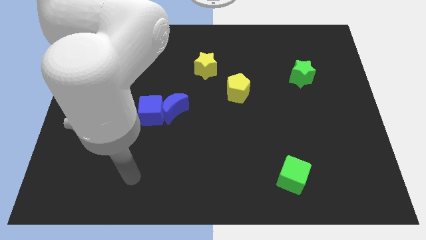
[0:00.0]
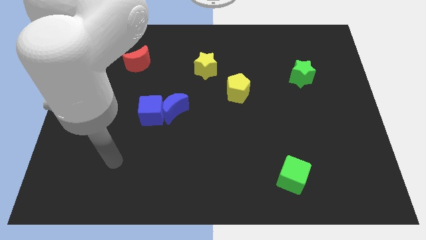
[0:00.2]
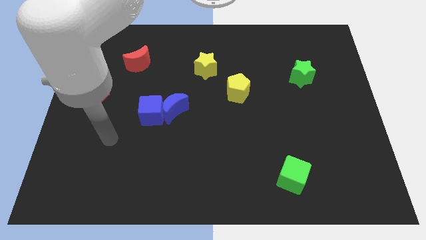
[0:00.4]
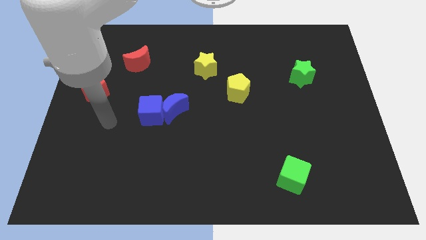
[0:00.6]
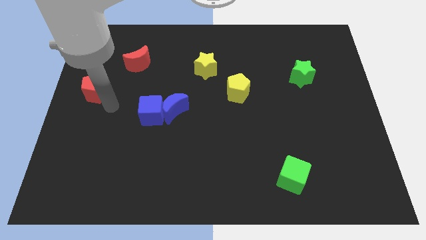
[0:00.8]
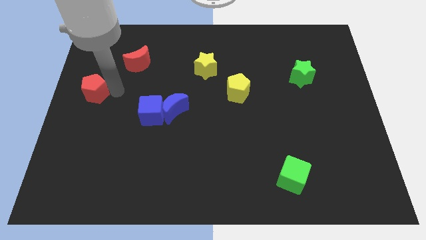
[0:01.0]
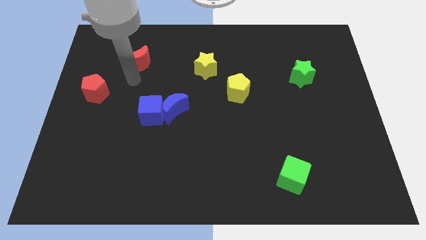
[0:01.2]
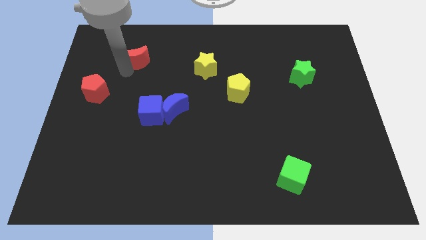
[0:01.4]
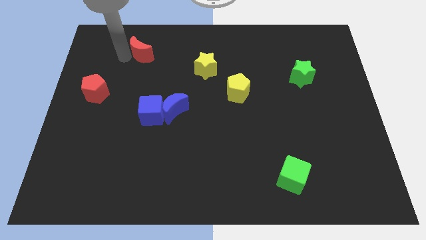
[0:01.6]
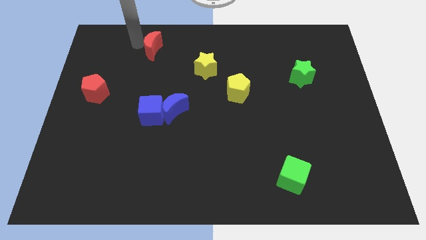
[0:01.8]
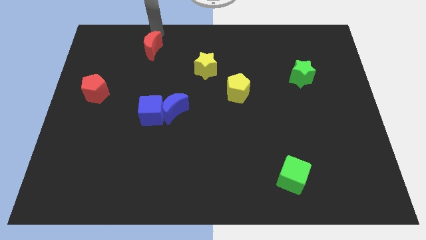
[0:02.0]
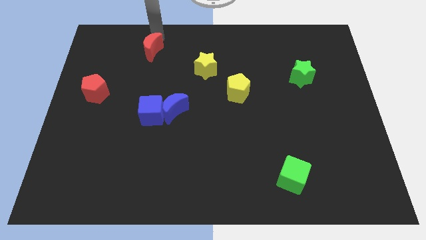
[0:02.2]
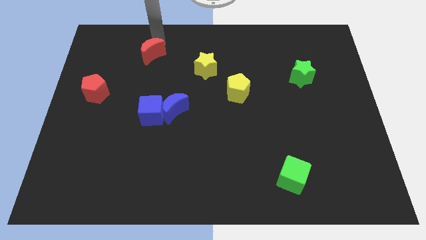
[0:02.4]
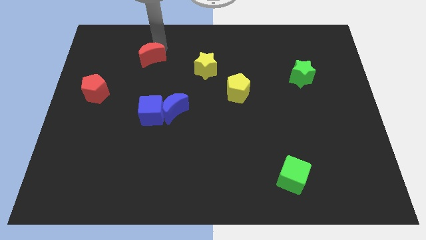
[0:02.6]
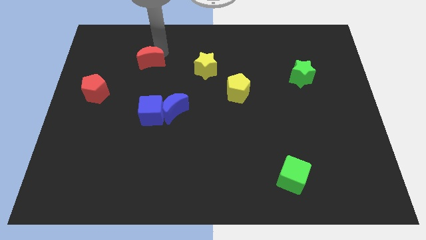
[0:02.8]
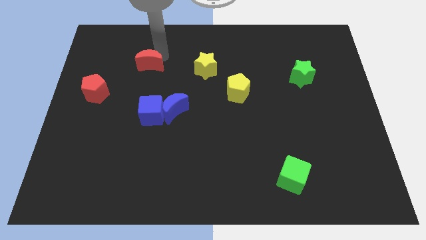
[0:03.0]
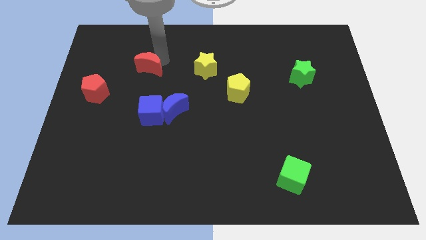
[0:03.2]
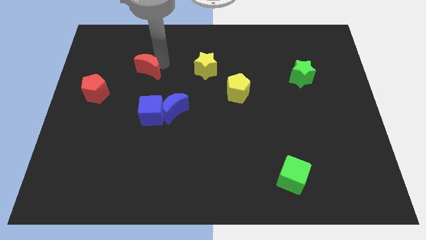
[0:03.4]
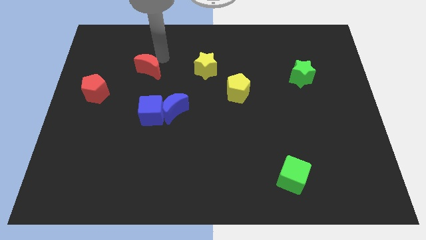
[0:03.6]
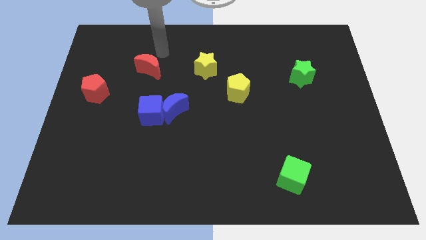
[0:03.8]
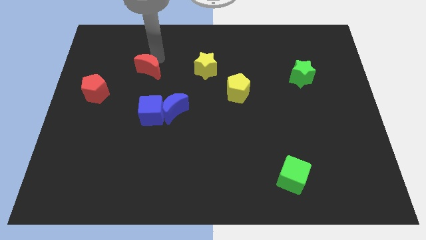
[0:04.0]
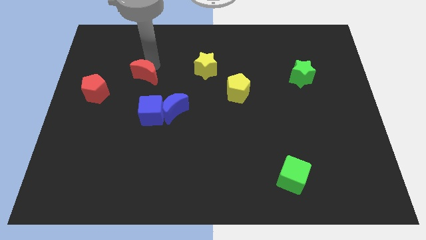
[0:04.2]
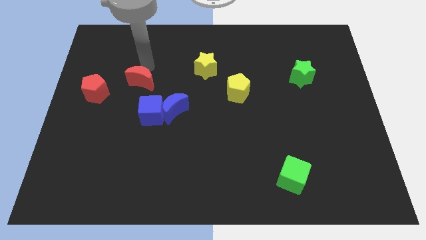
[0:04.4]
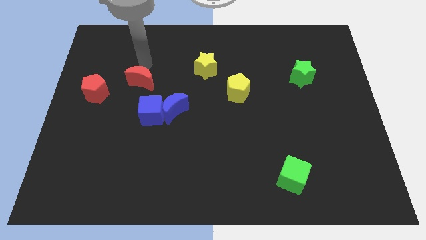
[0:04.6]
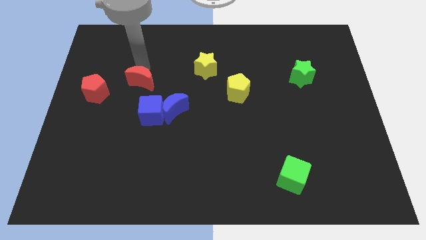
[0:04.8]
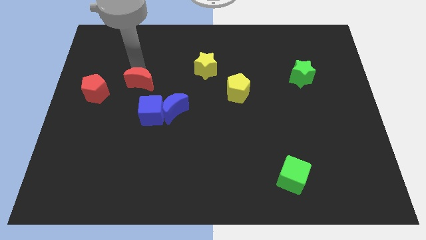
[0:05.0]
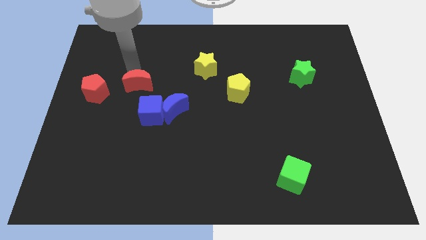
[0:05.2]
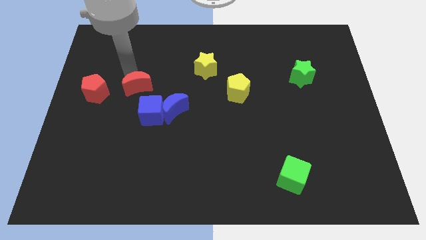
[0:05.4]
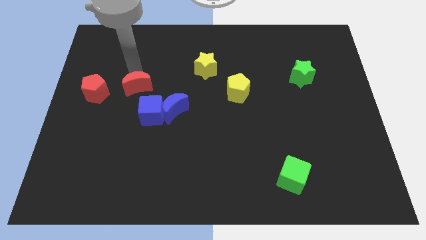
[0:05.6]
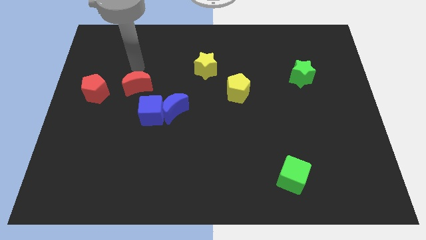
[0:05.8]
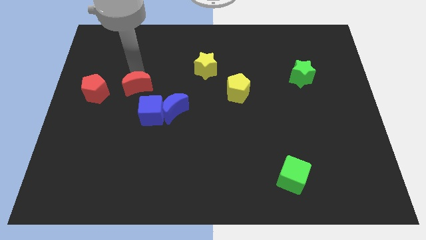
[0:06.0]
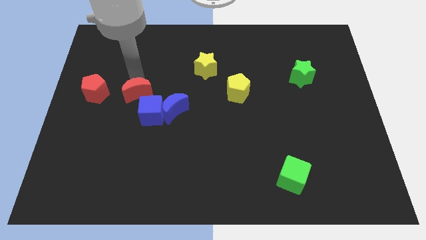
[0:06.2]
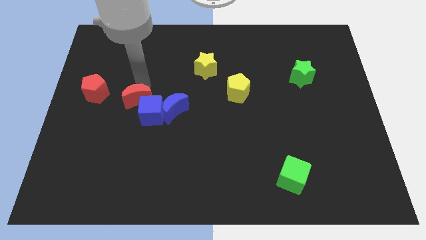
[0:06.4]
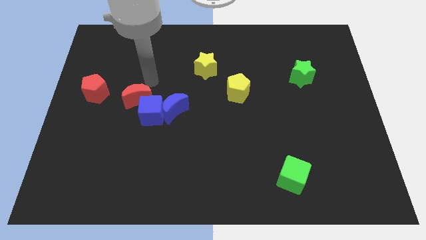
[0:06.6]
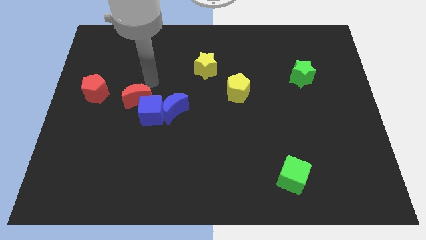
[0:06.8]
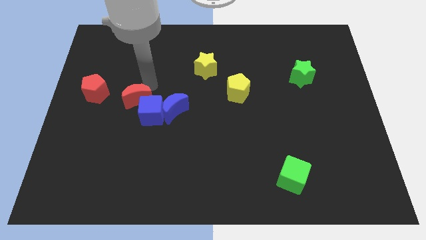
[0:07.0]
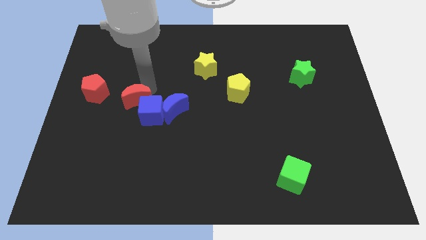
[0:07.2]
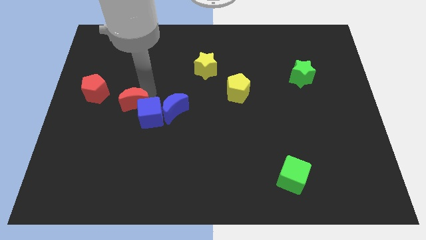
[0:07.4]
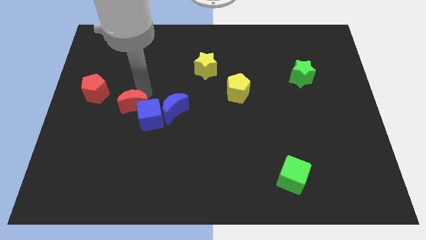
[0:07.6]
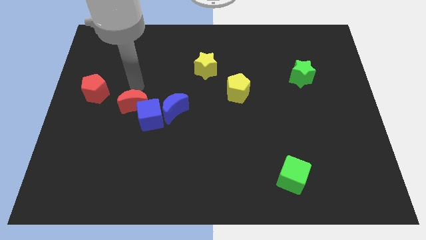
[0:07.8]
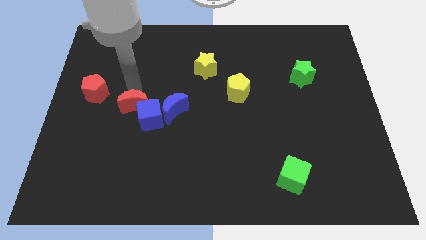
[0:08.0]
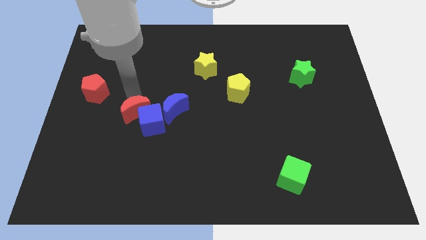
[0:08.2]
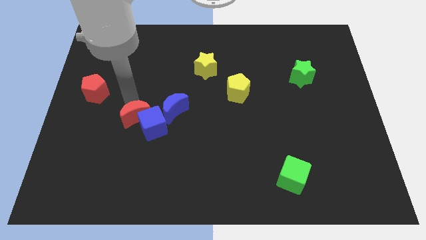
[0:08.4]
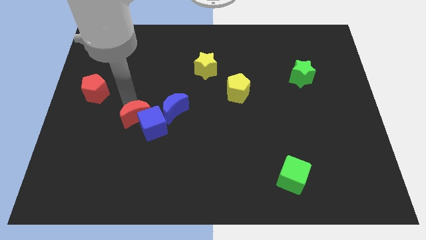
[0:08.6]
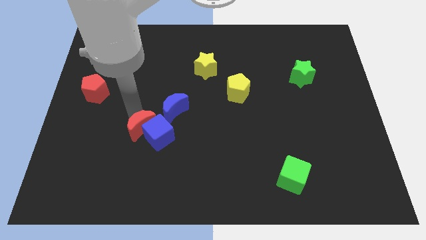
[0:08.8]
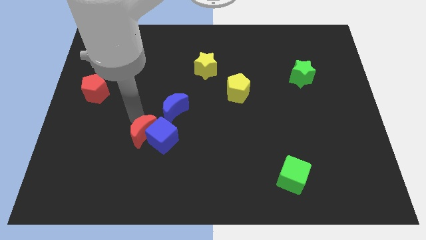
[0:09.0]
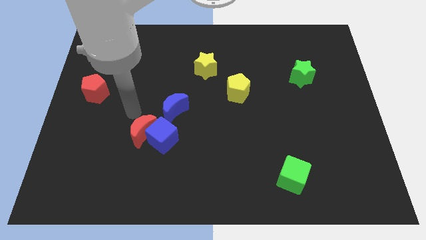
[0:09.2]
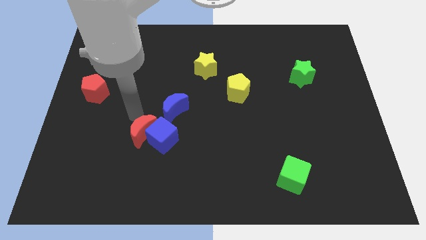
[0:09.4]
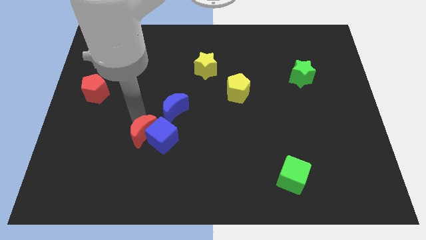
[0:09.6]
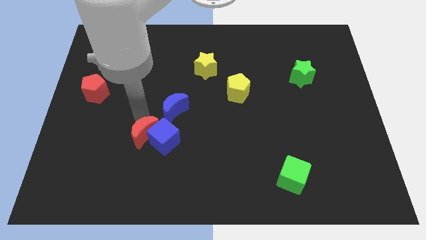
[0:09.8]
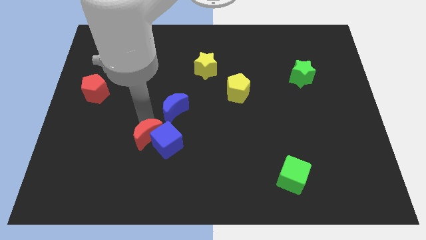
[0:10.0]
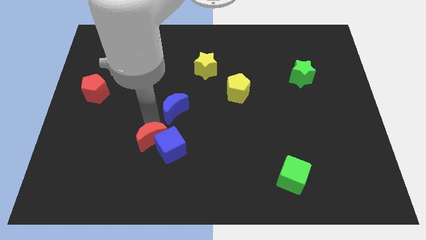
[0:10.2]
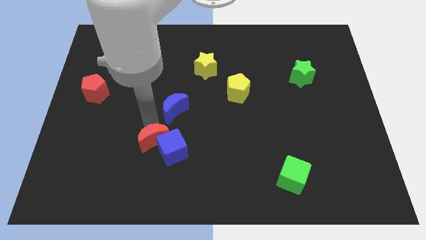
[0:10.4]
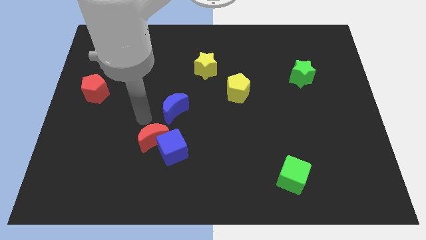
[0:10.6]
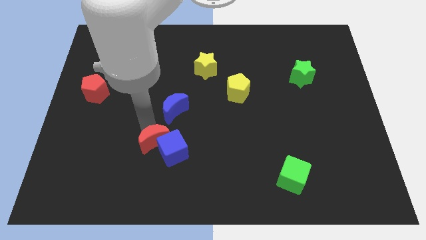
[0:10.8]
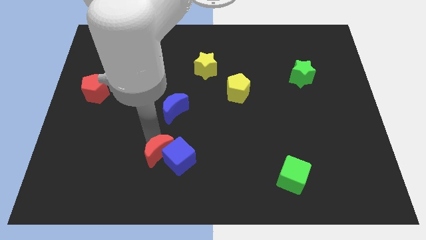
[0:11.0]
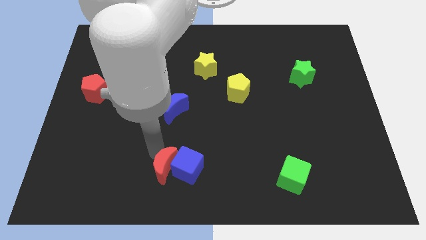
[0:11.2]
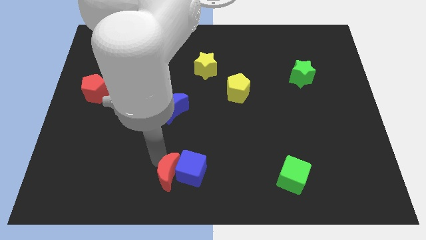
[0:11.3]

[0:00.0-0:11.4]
move the red moon to the bottom
